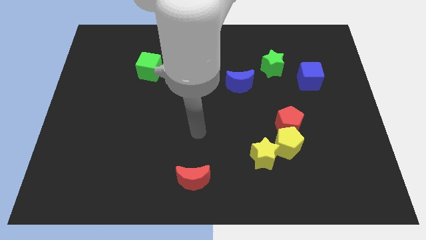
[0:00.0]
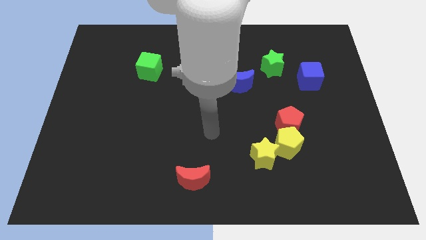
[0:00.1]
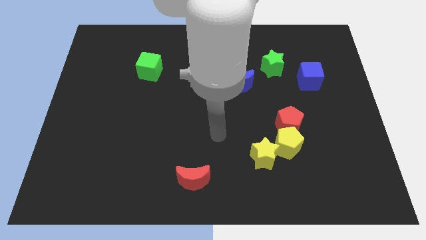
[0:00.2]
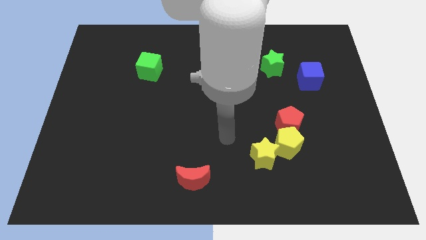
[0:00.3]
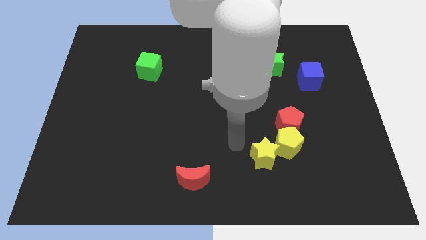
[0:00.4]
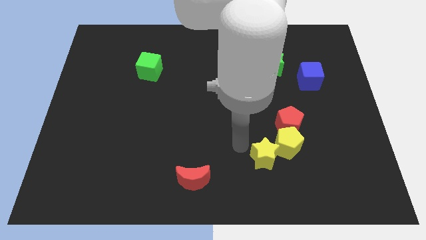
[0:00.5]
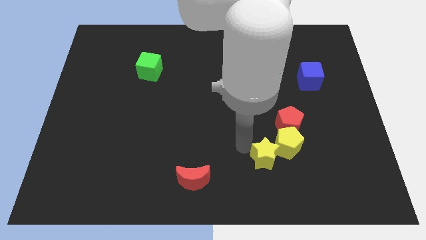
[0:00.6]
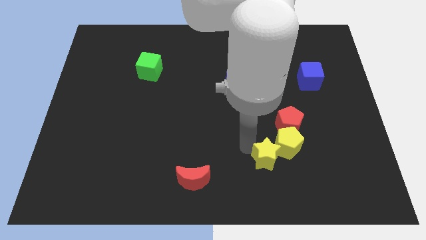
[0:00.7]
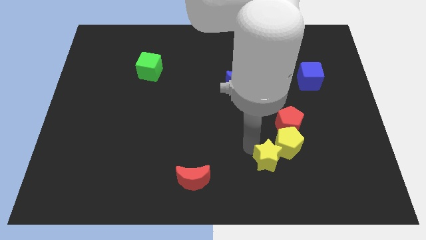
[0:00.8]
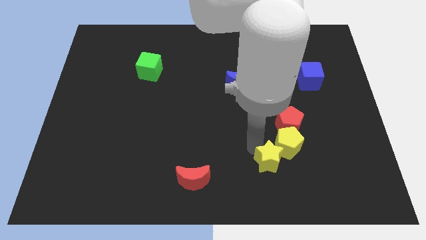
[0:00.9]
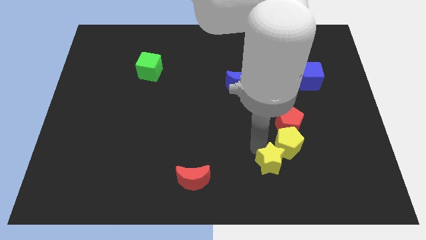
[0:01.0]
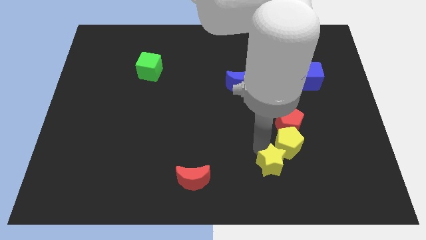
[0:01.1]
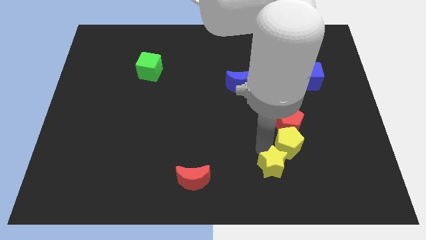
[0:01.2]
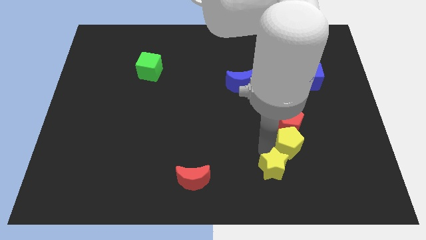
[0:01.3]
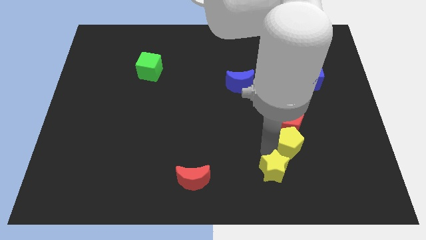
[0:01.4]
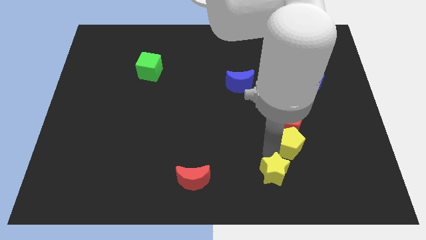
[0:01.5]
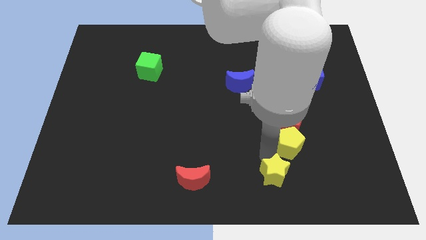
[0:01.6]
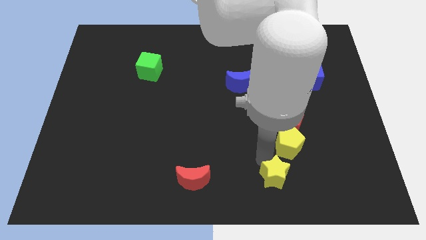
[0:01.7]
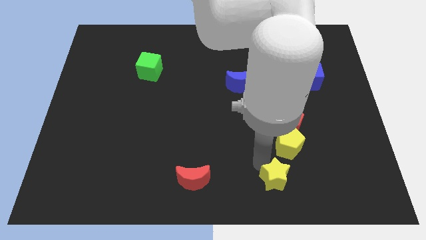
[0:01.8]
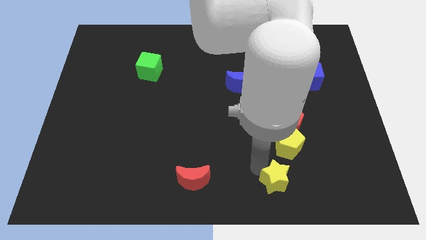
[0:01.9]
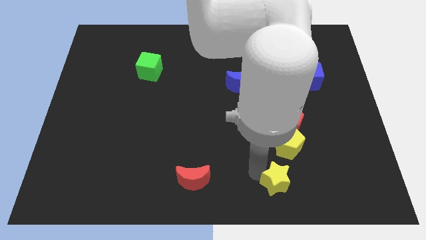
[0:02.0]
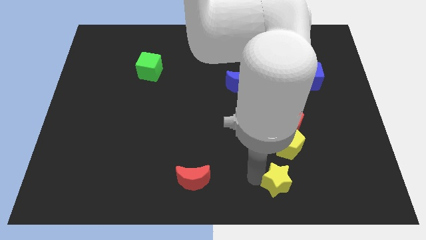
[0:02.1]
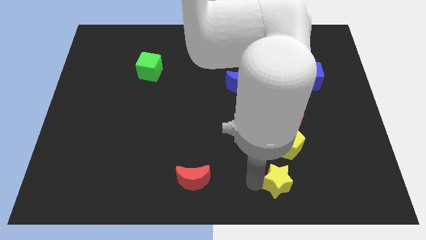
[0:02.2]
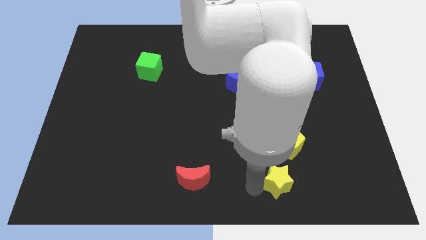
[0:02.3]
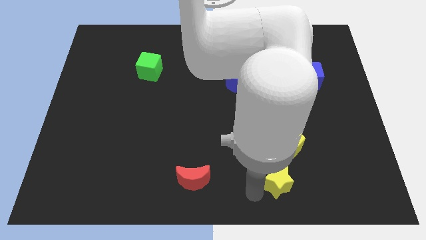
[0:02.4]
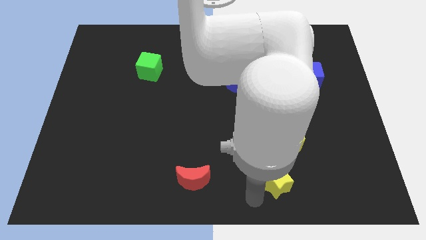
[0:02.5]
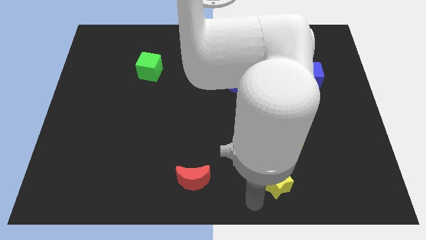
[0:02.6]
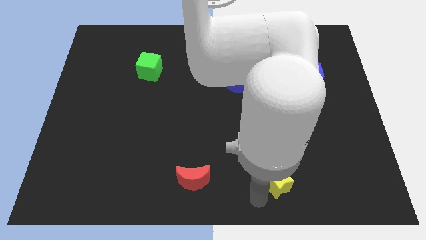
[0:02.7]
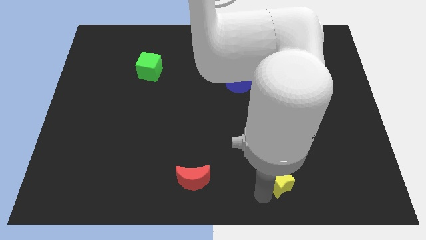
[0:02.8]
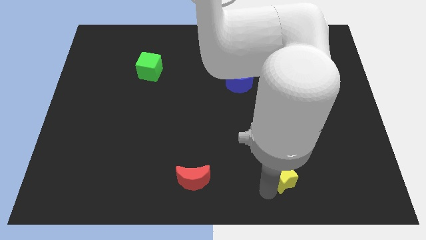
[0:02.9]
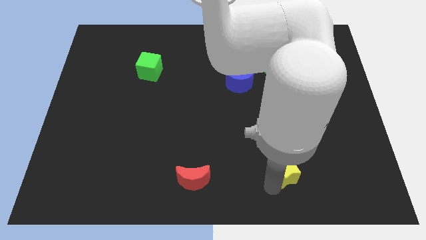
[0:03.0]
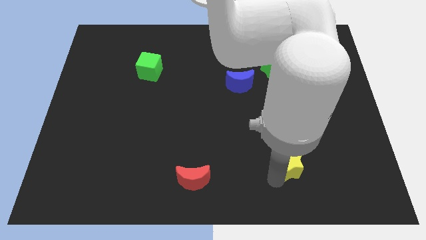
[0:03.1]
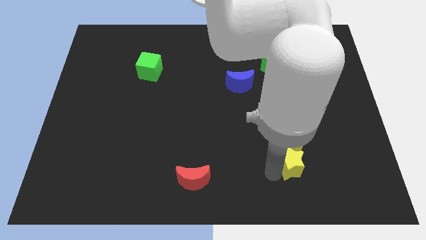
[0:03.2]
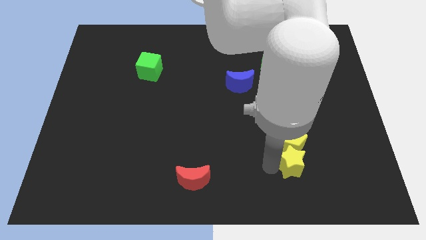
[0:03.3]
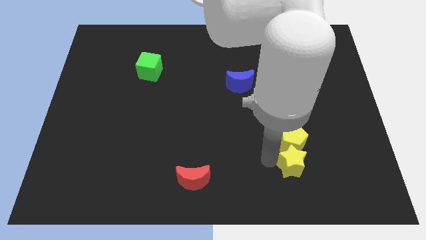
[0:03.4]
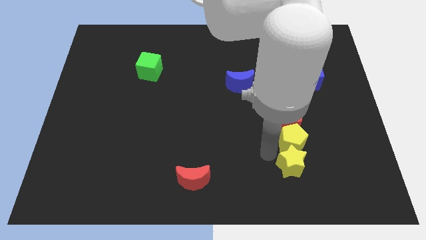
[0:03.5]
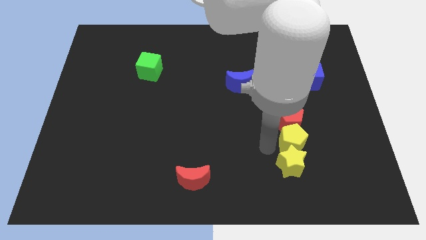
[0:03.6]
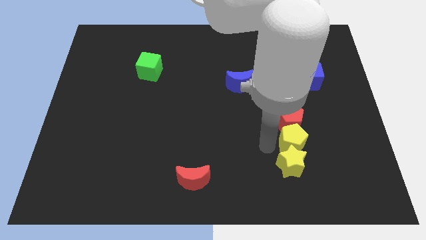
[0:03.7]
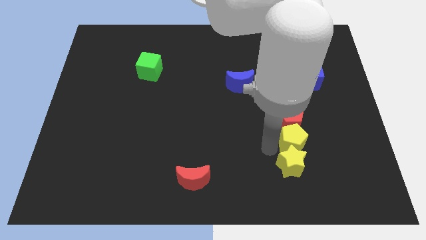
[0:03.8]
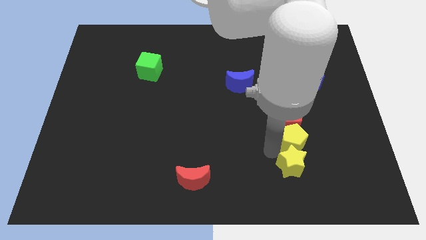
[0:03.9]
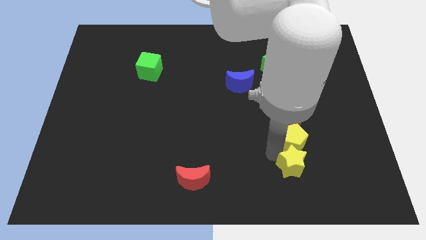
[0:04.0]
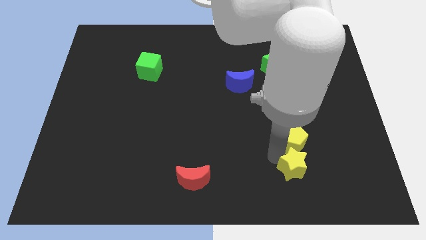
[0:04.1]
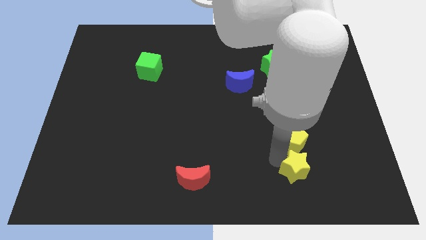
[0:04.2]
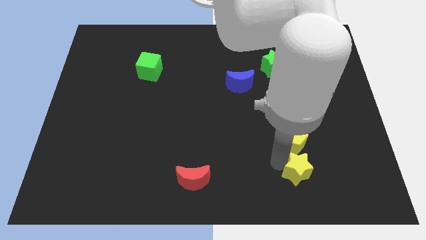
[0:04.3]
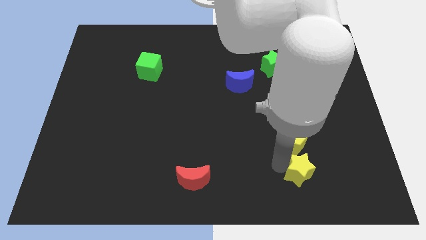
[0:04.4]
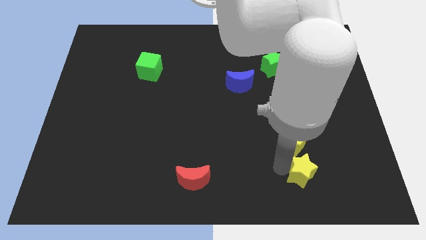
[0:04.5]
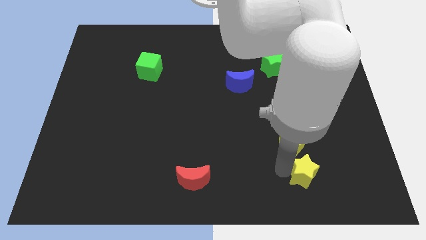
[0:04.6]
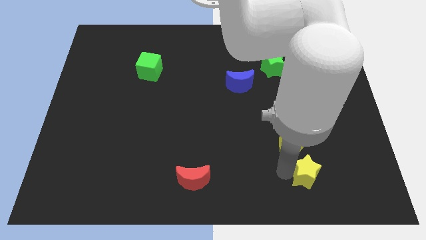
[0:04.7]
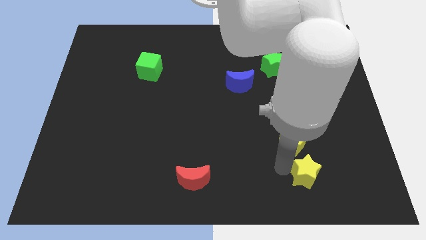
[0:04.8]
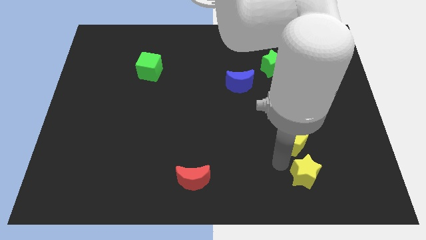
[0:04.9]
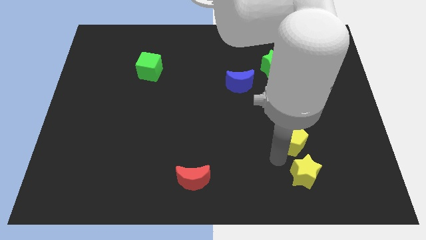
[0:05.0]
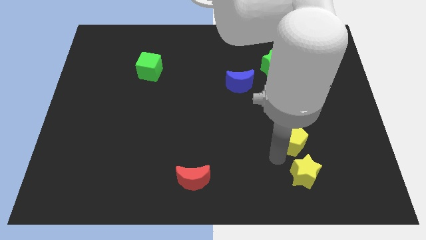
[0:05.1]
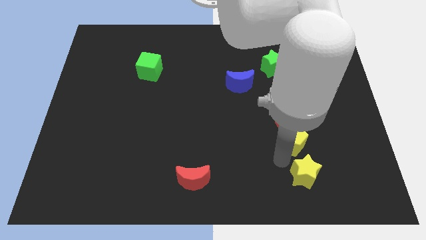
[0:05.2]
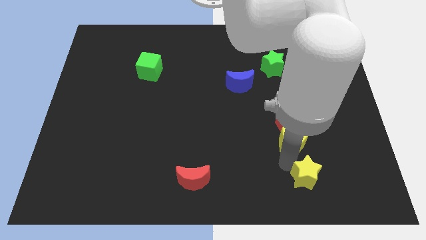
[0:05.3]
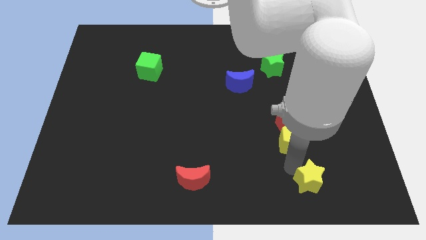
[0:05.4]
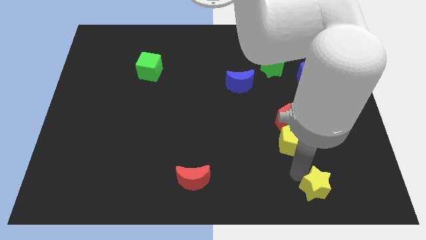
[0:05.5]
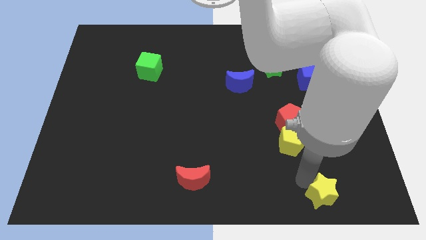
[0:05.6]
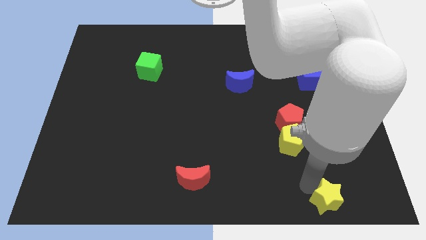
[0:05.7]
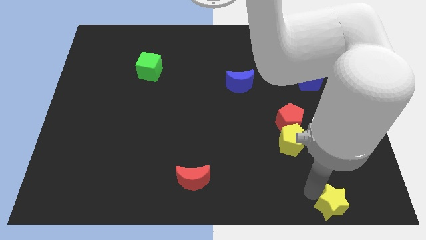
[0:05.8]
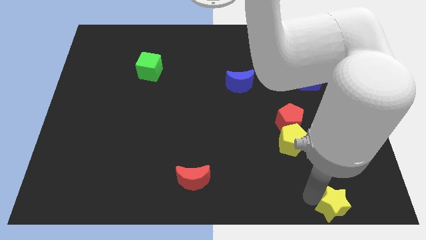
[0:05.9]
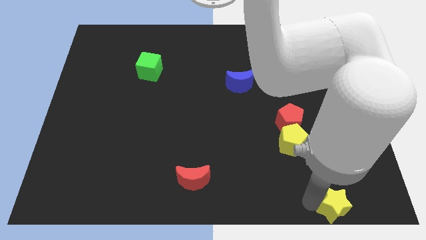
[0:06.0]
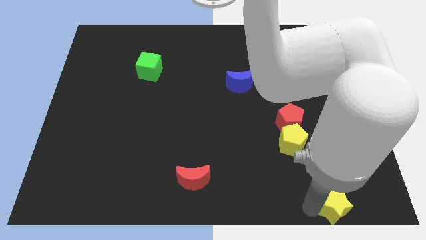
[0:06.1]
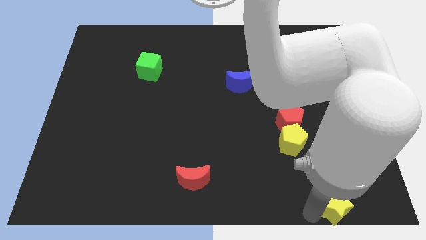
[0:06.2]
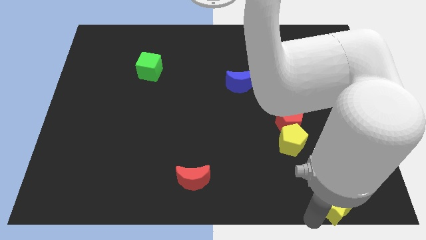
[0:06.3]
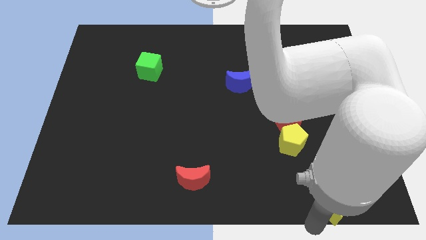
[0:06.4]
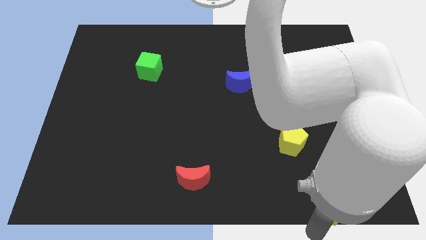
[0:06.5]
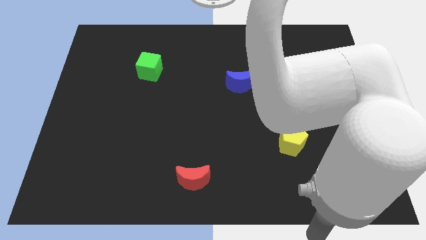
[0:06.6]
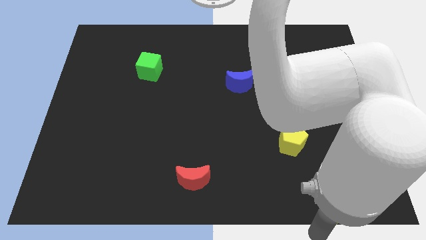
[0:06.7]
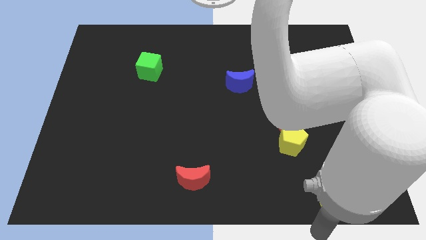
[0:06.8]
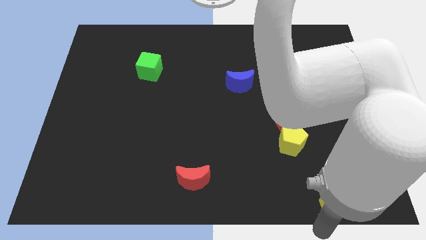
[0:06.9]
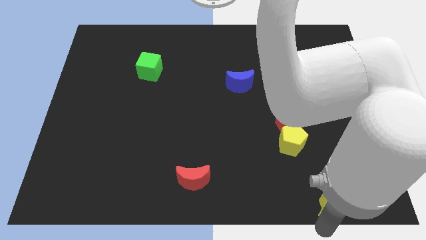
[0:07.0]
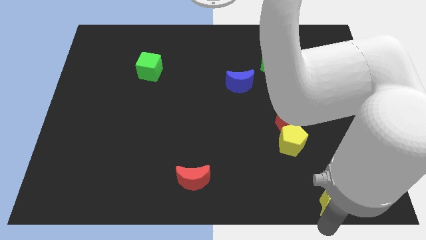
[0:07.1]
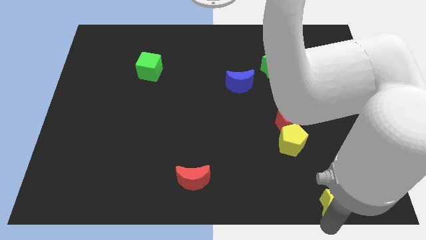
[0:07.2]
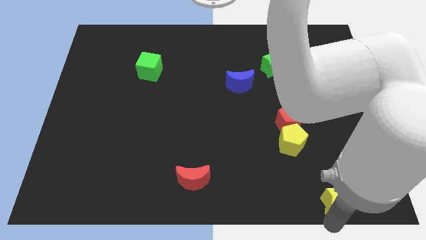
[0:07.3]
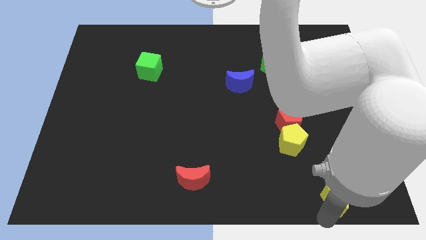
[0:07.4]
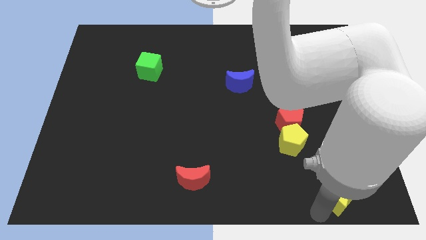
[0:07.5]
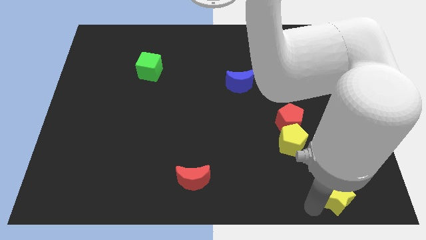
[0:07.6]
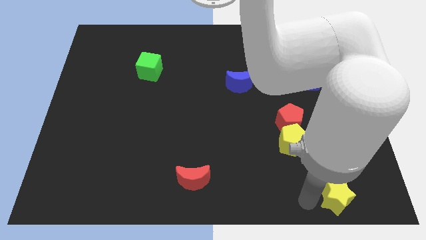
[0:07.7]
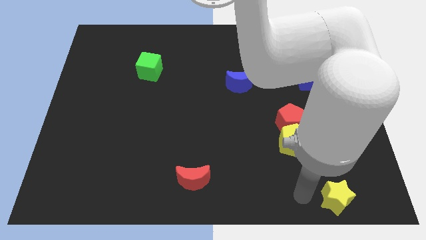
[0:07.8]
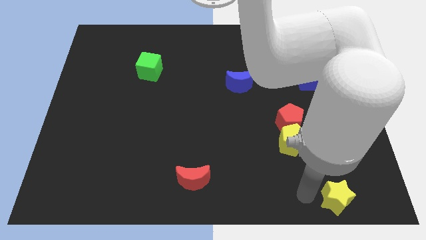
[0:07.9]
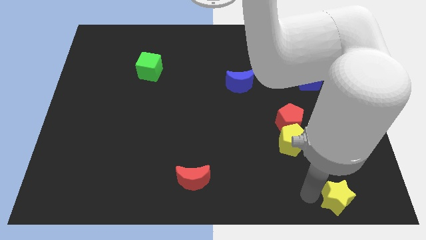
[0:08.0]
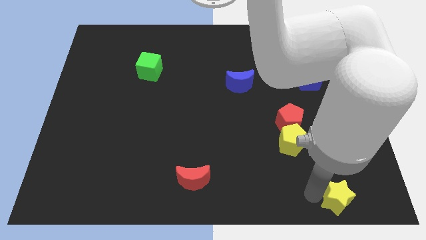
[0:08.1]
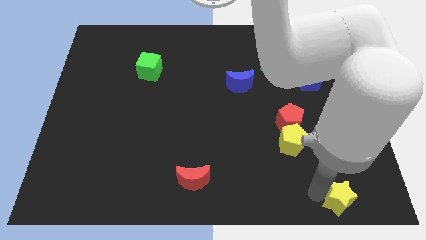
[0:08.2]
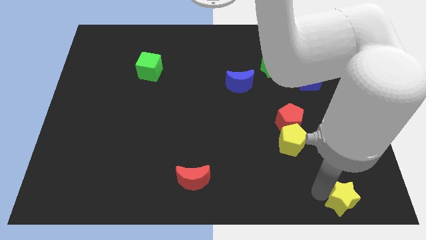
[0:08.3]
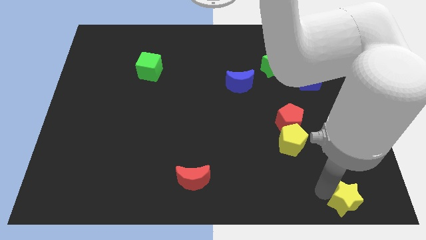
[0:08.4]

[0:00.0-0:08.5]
move the yellow star to the bottom right of the board
